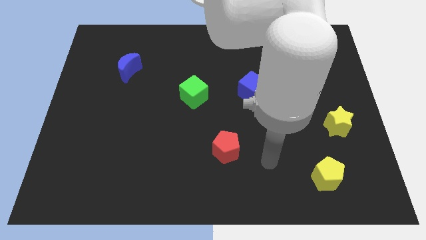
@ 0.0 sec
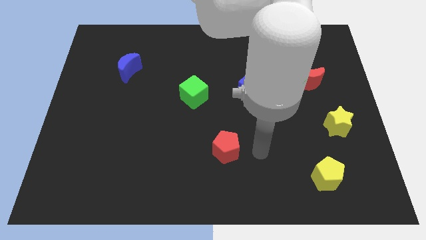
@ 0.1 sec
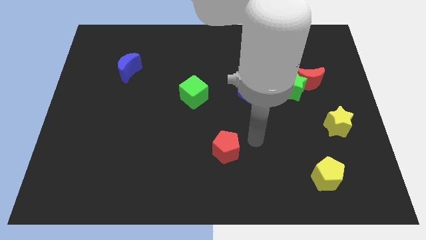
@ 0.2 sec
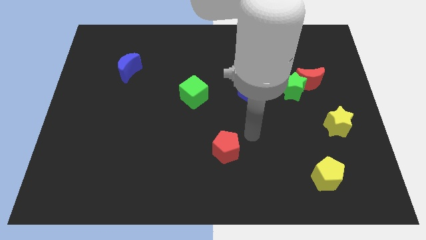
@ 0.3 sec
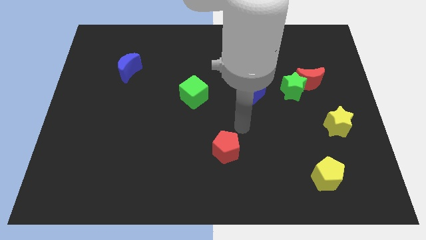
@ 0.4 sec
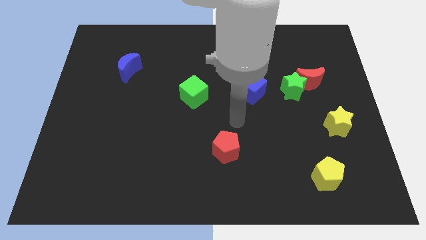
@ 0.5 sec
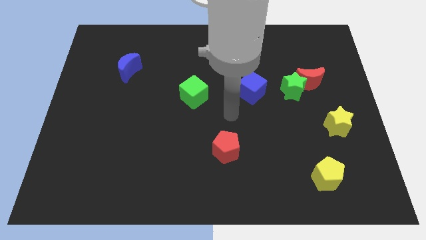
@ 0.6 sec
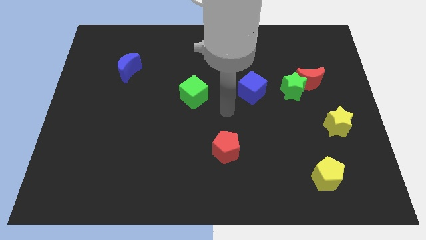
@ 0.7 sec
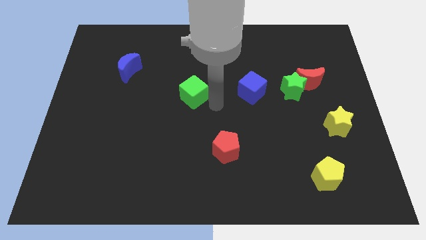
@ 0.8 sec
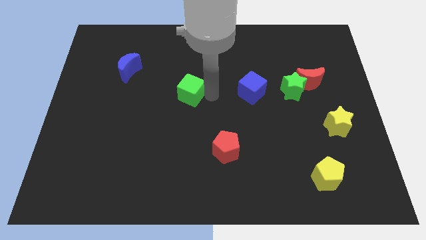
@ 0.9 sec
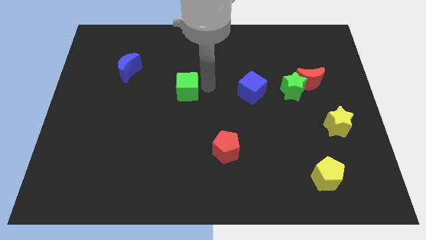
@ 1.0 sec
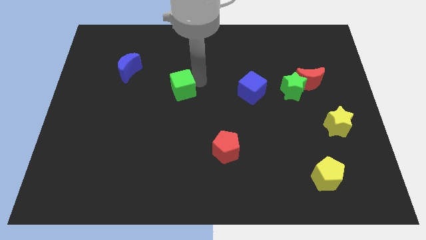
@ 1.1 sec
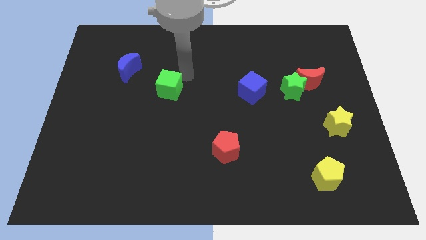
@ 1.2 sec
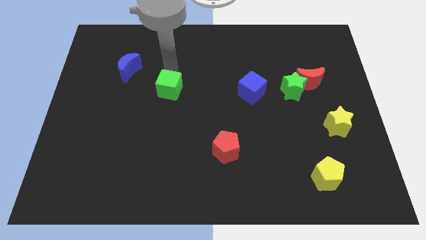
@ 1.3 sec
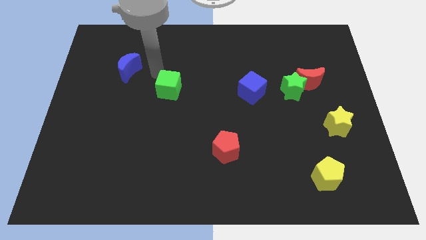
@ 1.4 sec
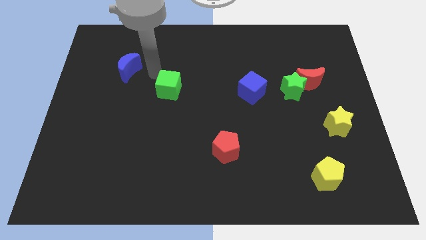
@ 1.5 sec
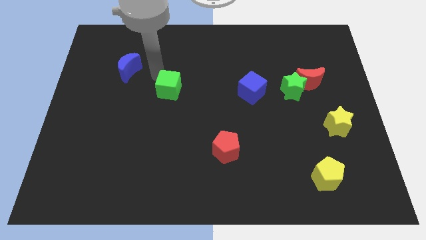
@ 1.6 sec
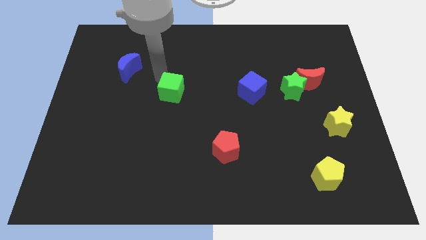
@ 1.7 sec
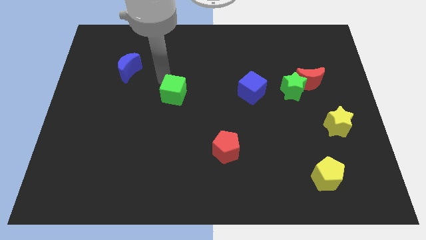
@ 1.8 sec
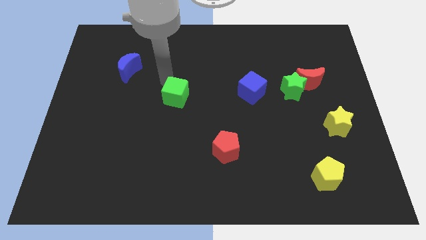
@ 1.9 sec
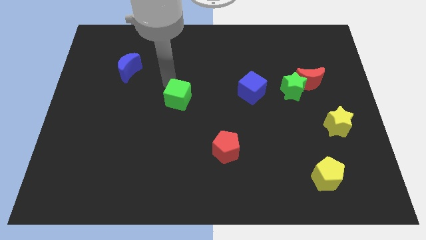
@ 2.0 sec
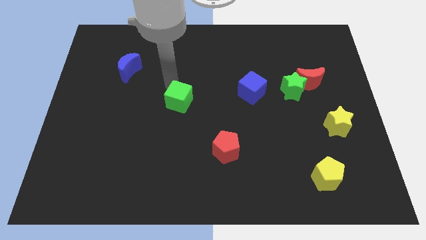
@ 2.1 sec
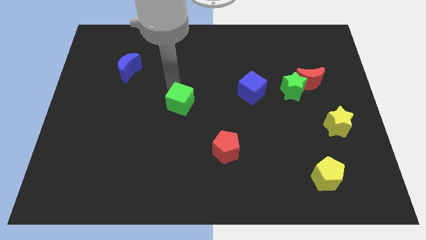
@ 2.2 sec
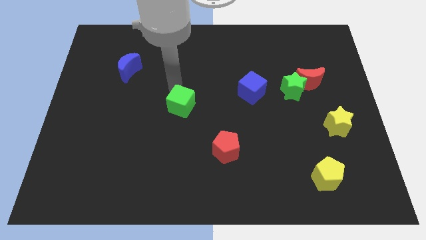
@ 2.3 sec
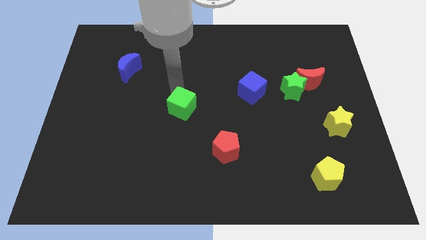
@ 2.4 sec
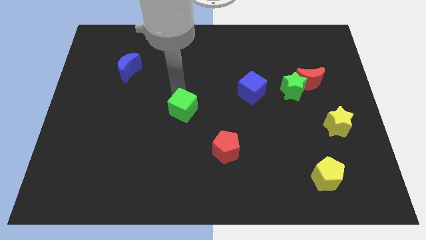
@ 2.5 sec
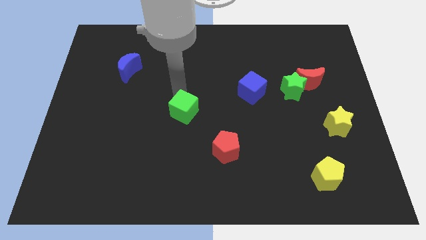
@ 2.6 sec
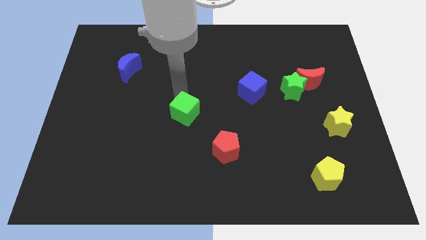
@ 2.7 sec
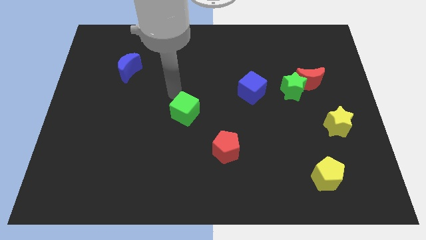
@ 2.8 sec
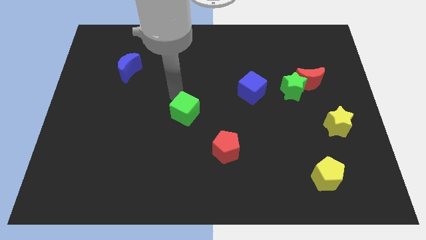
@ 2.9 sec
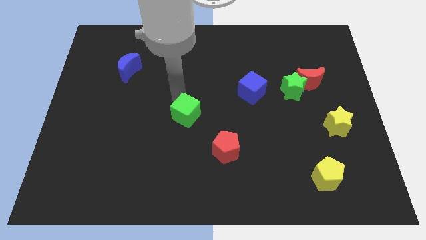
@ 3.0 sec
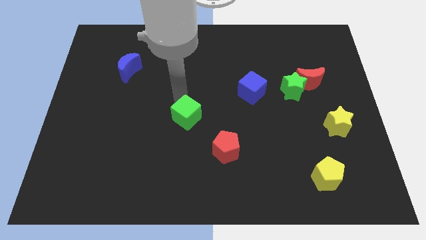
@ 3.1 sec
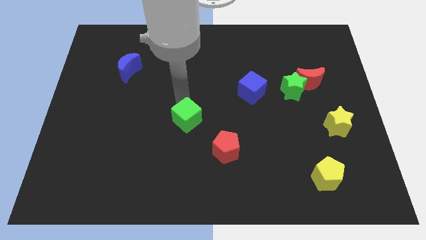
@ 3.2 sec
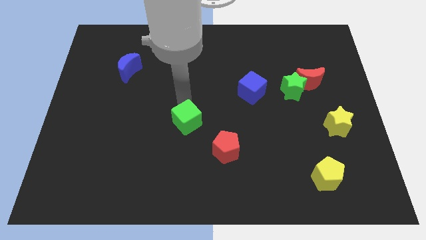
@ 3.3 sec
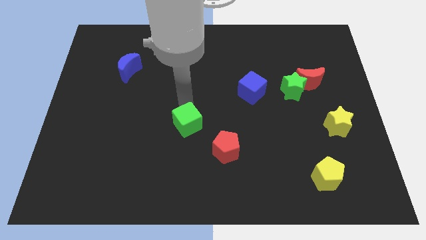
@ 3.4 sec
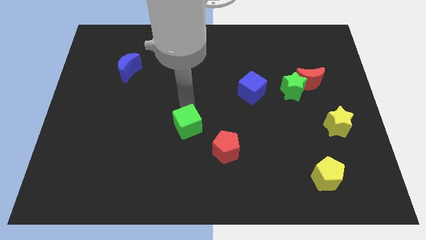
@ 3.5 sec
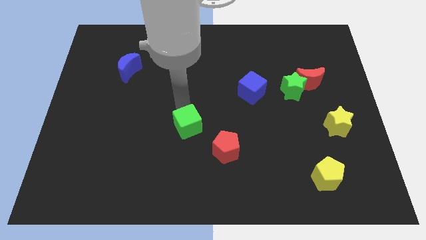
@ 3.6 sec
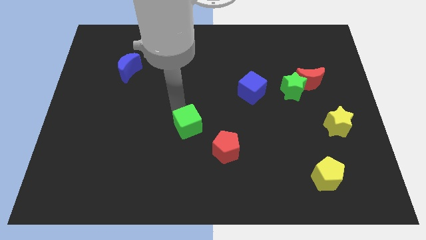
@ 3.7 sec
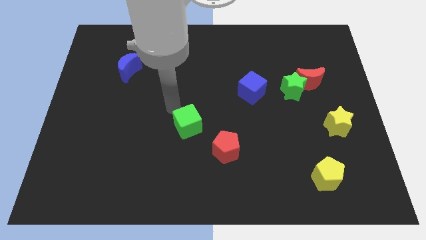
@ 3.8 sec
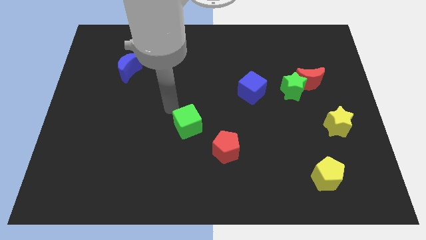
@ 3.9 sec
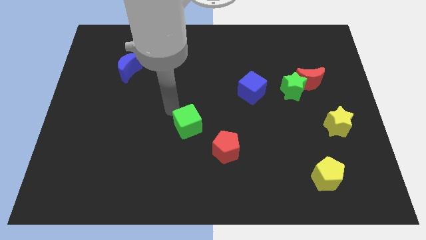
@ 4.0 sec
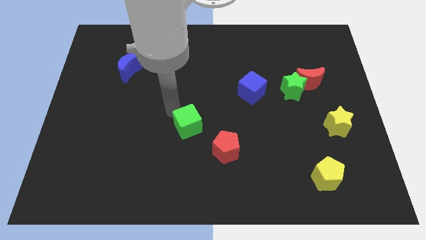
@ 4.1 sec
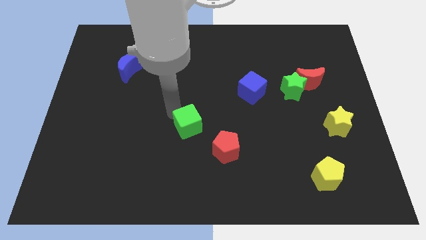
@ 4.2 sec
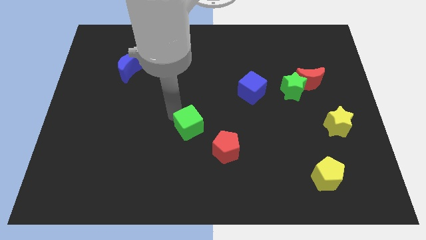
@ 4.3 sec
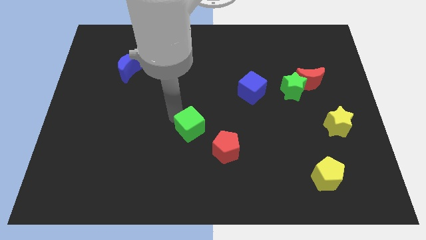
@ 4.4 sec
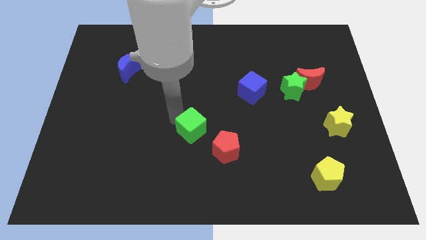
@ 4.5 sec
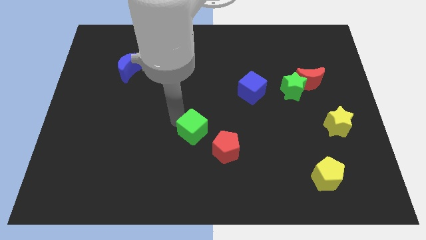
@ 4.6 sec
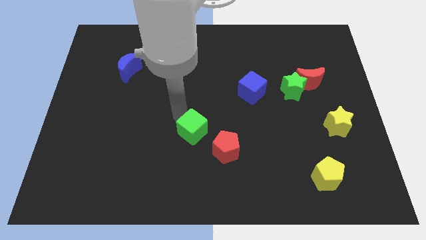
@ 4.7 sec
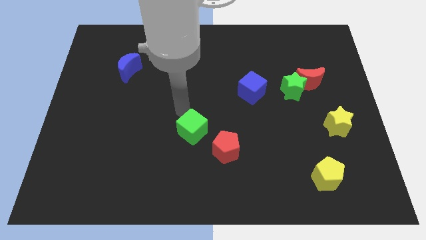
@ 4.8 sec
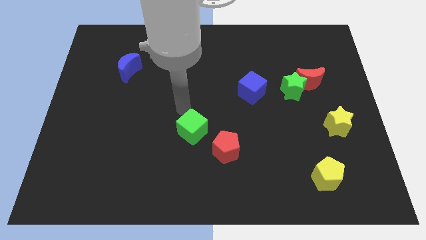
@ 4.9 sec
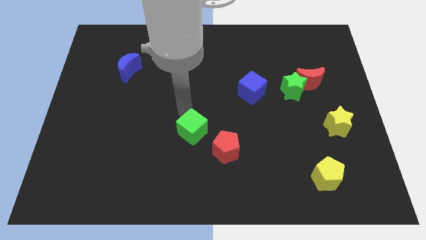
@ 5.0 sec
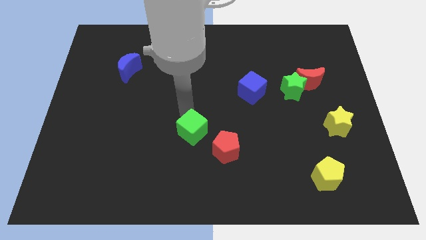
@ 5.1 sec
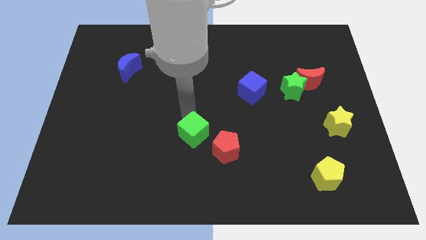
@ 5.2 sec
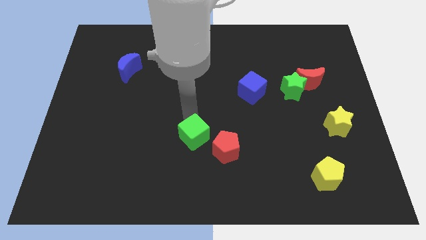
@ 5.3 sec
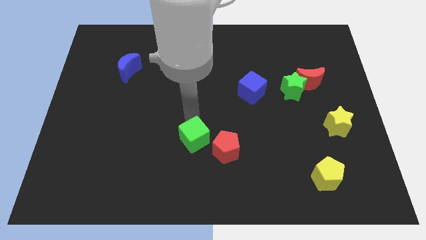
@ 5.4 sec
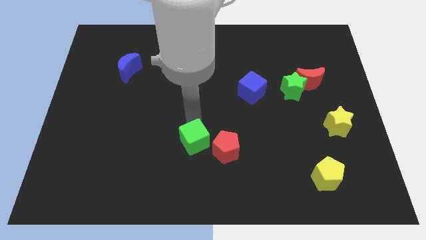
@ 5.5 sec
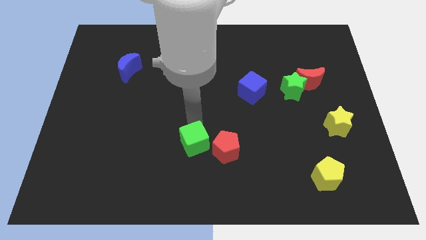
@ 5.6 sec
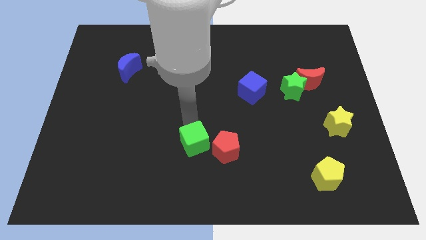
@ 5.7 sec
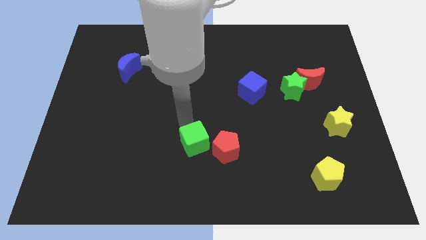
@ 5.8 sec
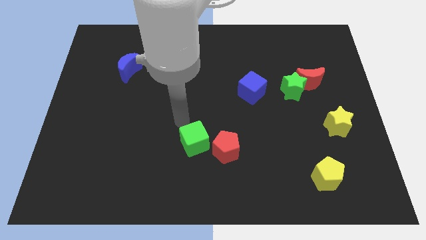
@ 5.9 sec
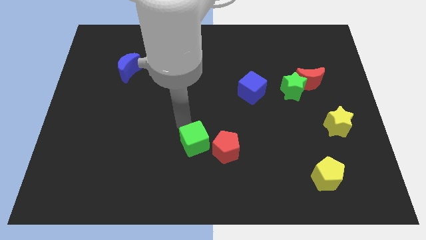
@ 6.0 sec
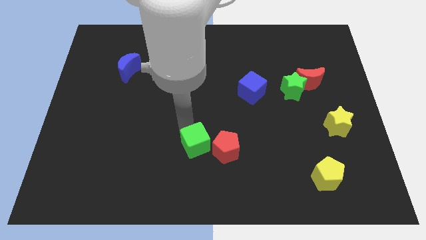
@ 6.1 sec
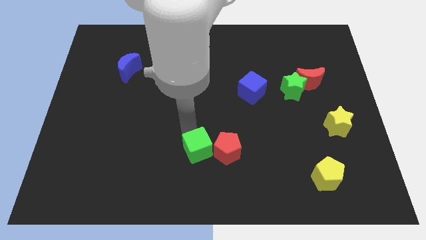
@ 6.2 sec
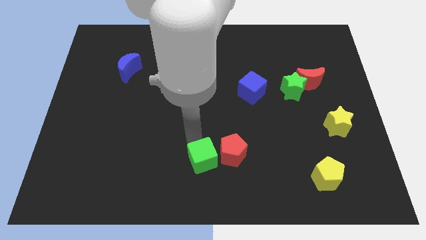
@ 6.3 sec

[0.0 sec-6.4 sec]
slide the green cube to the bottom
